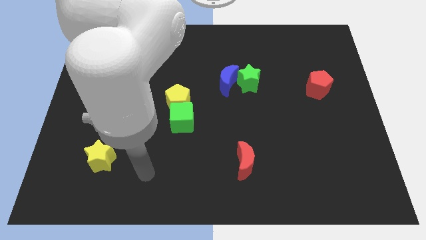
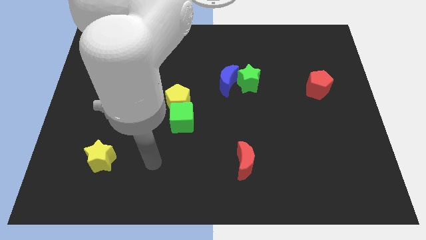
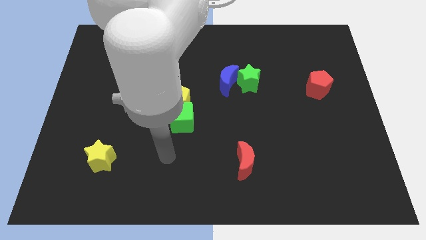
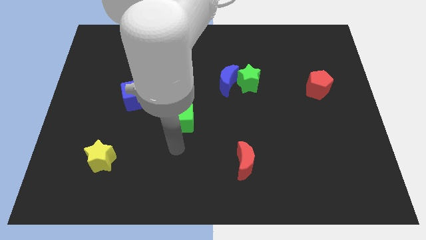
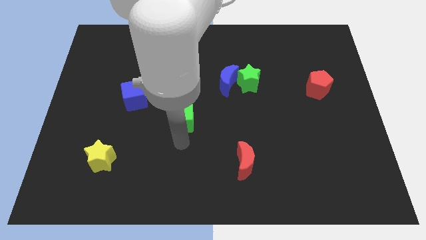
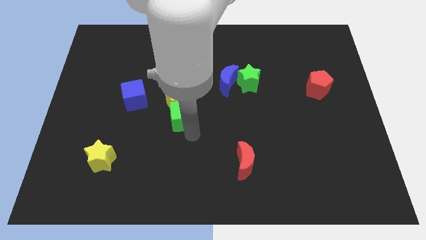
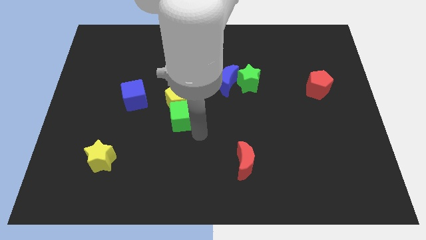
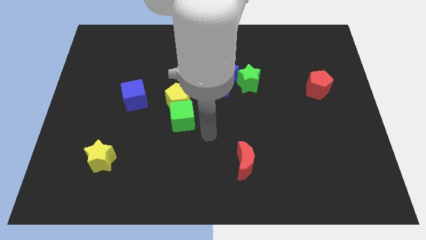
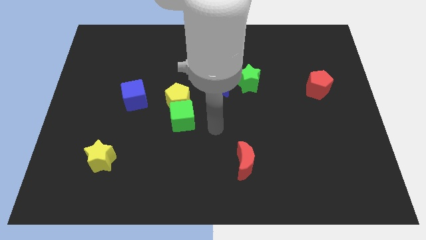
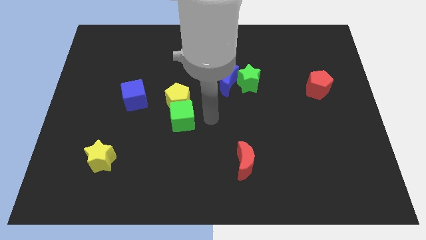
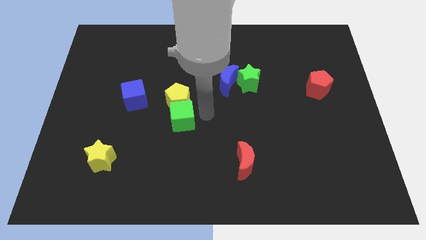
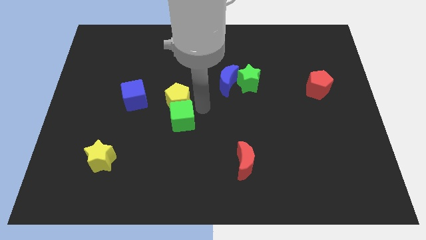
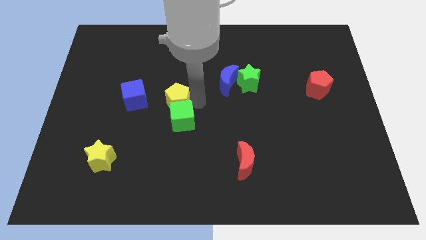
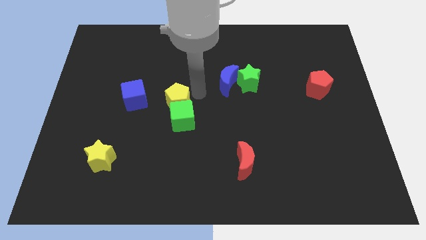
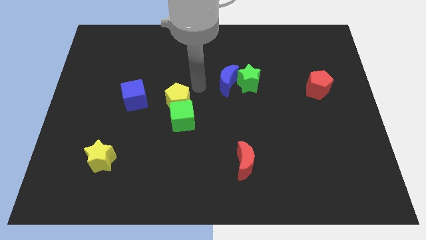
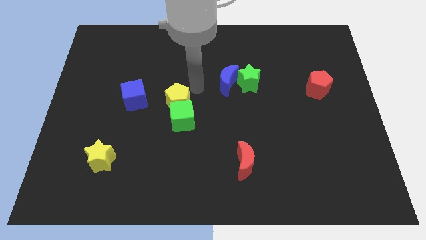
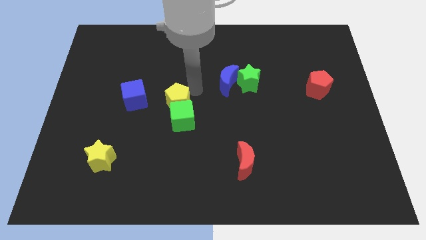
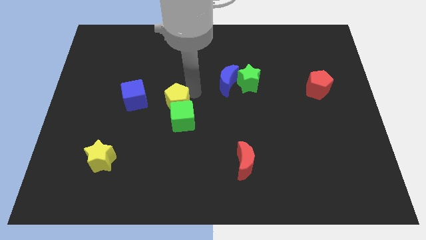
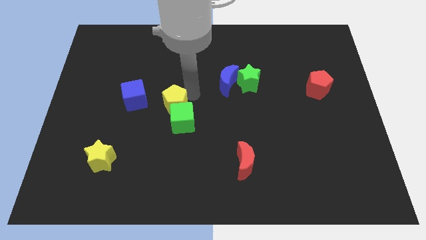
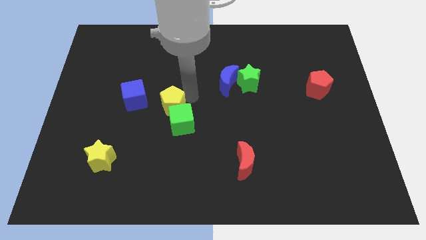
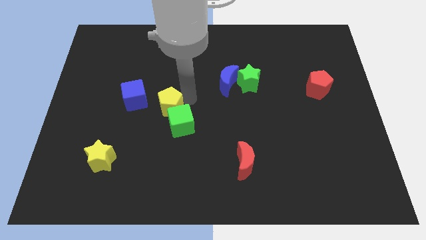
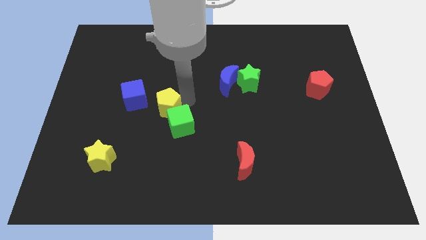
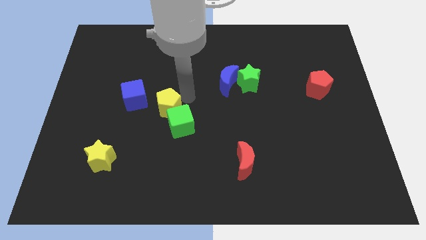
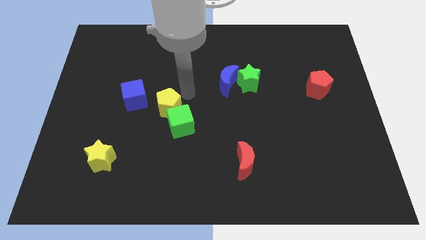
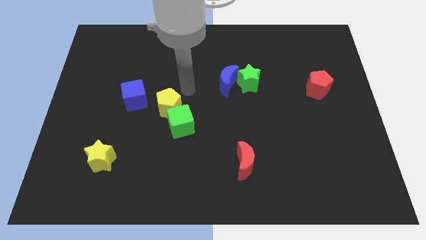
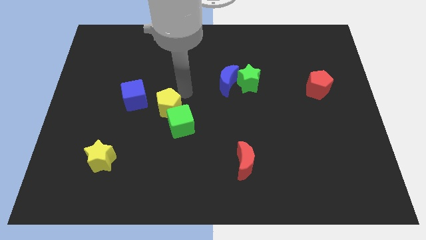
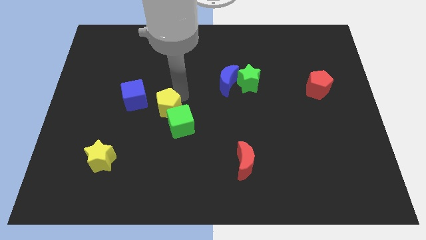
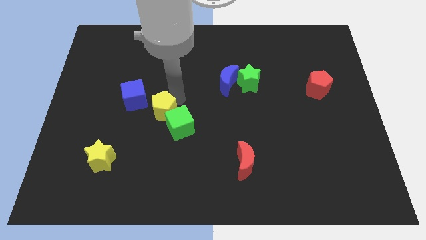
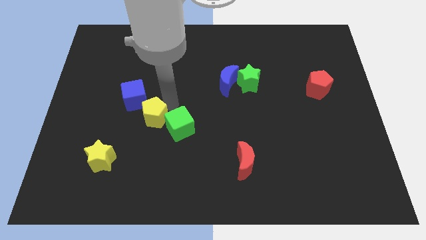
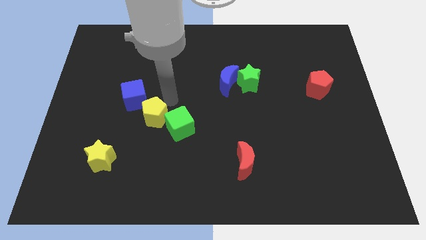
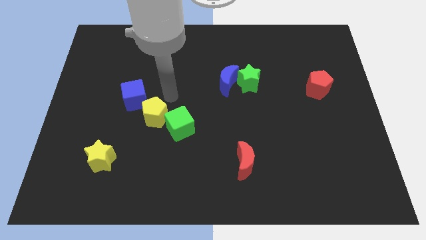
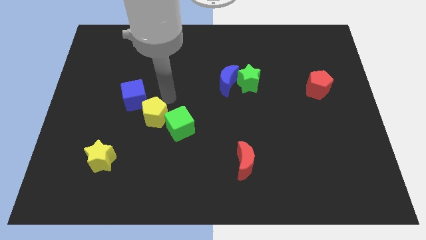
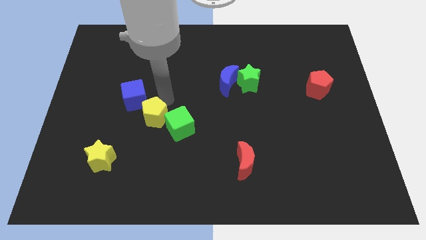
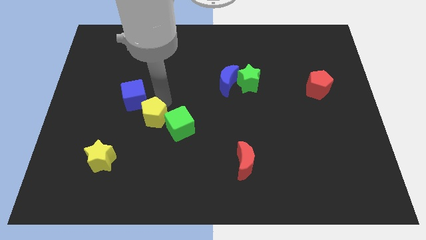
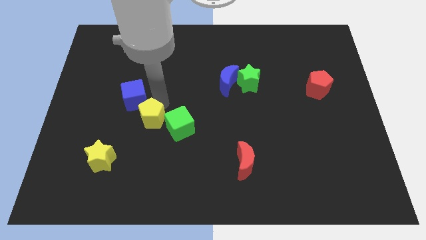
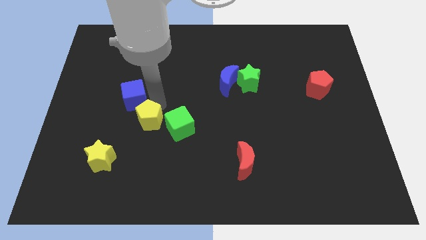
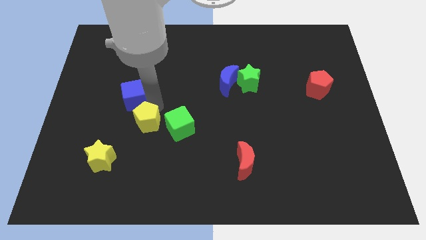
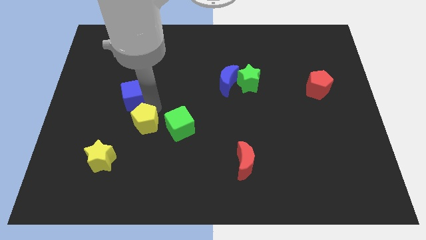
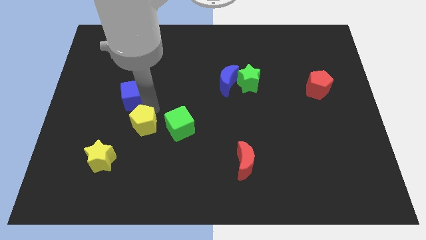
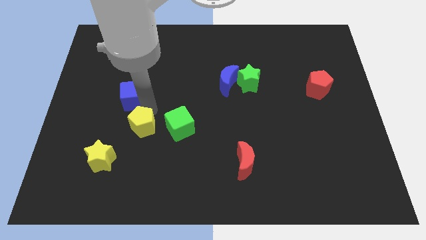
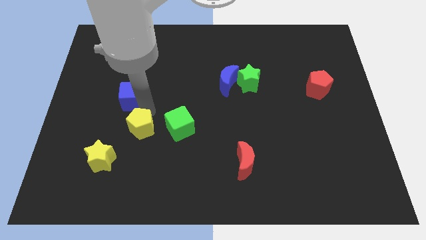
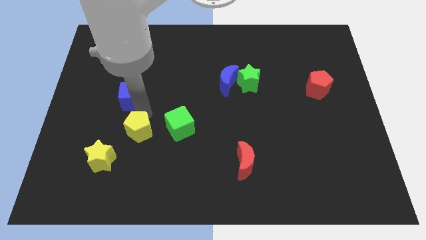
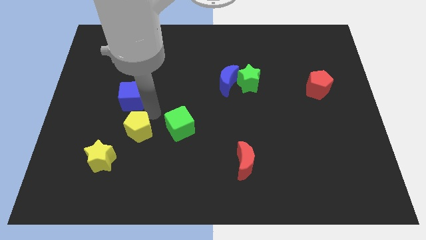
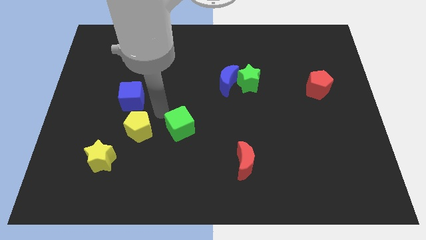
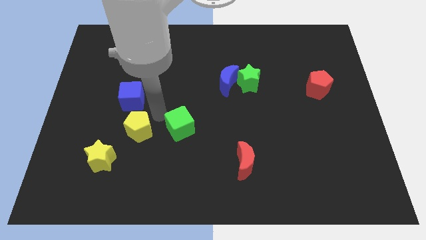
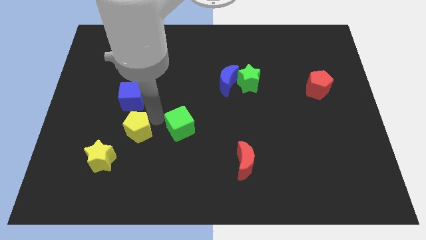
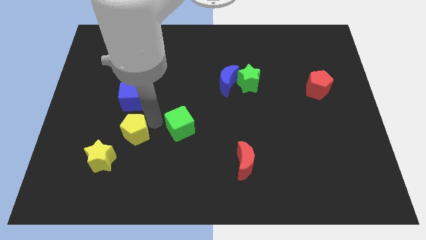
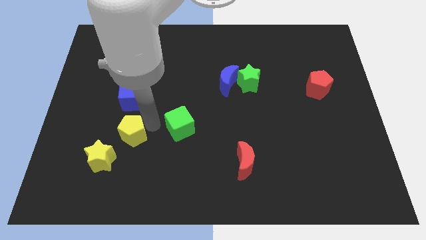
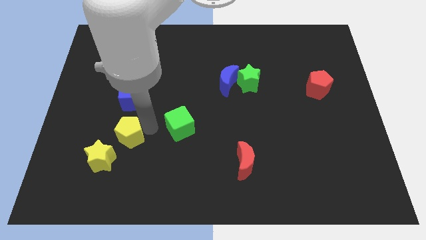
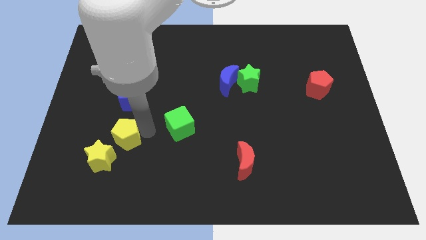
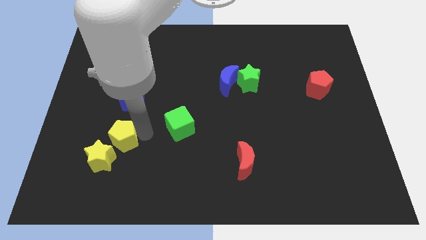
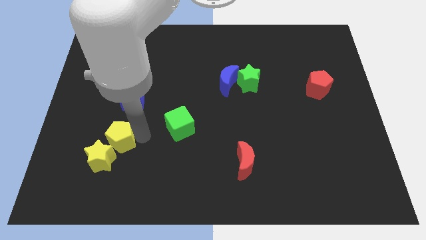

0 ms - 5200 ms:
push the yellow pentagon to the yellow star

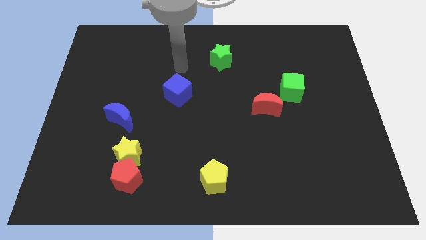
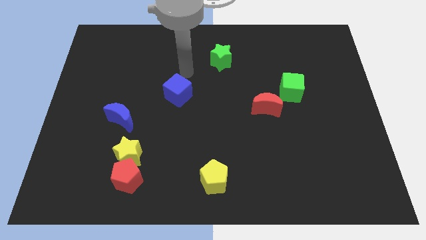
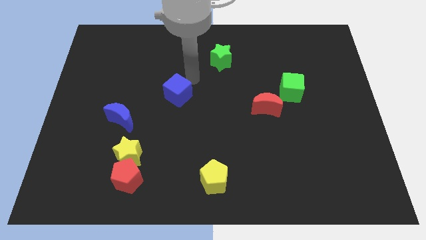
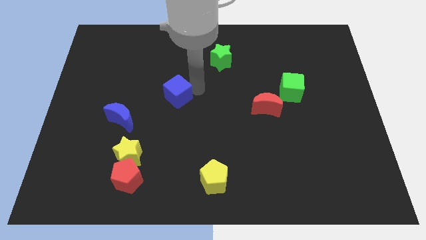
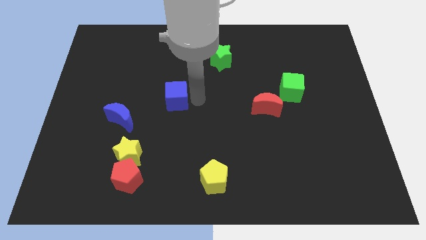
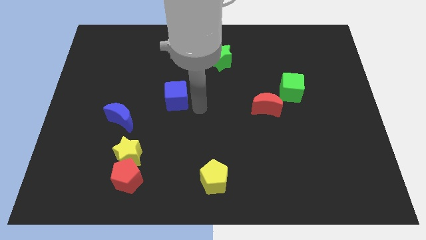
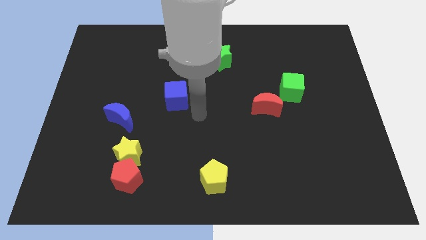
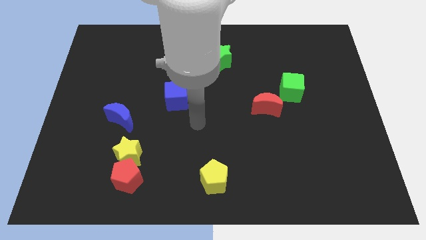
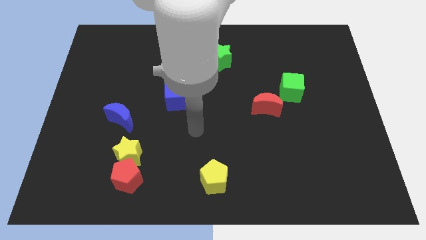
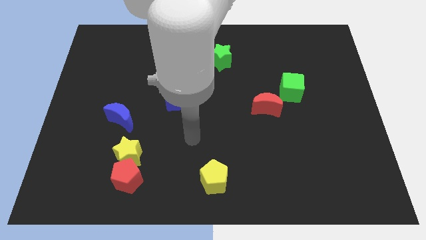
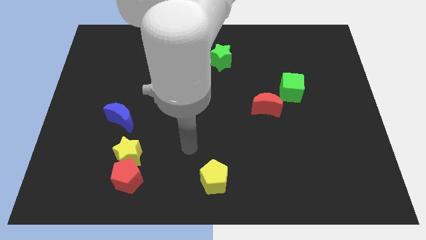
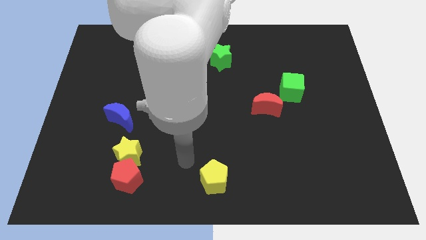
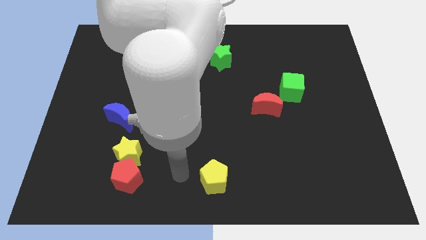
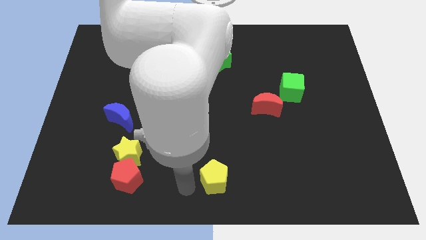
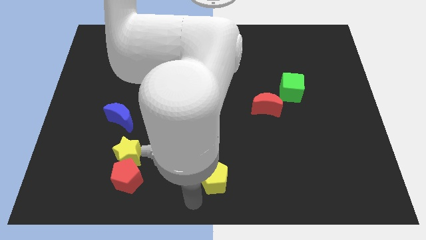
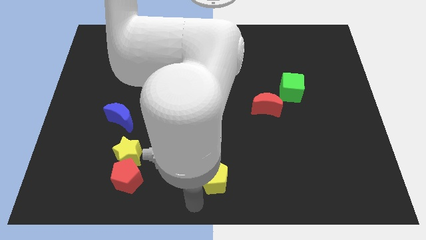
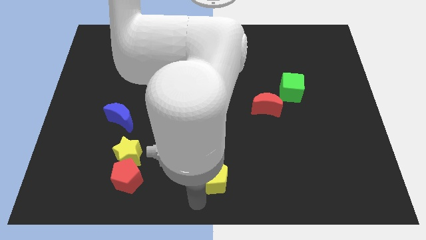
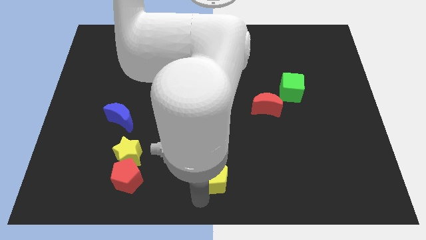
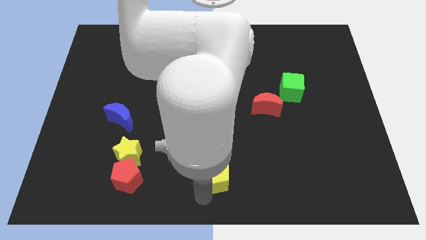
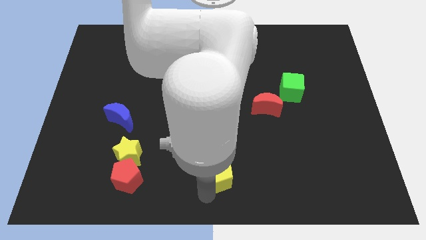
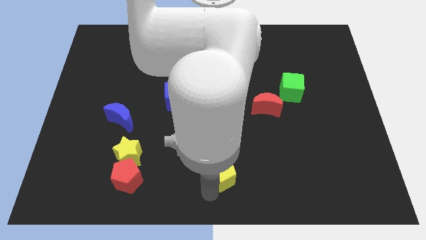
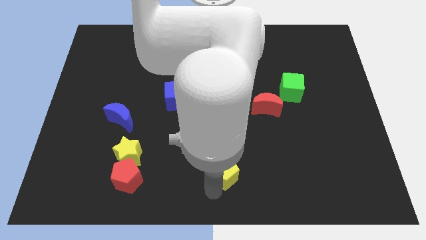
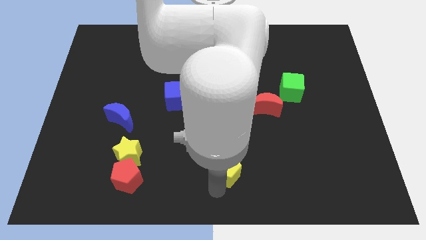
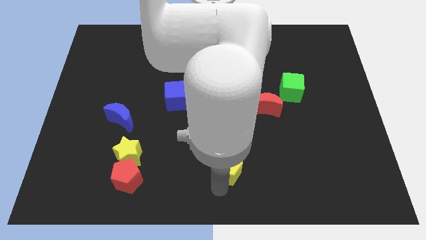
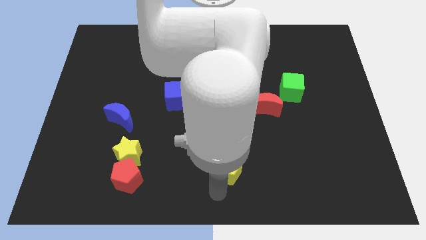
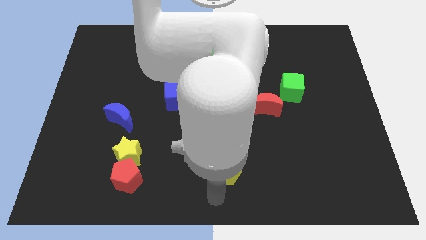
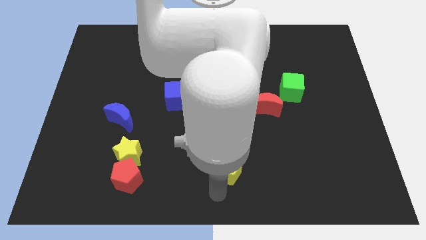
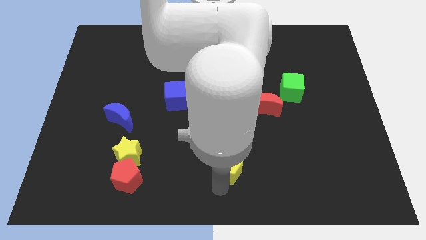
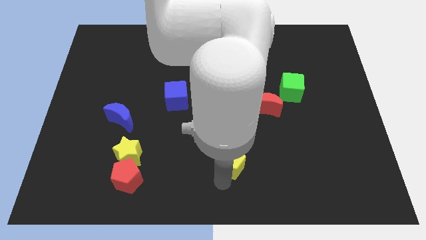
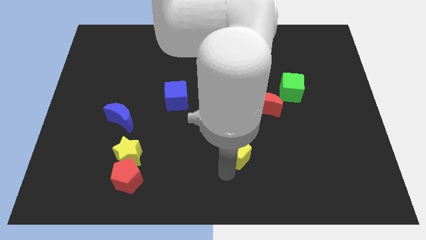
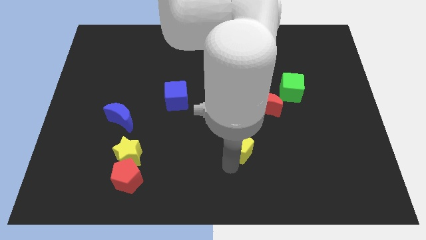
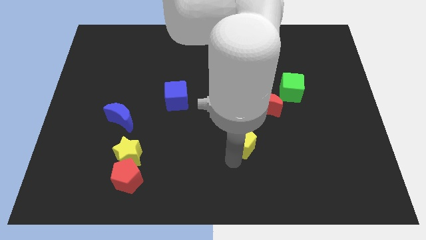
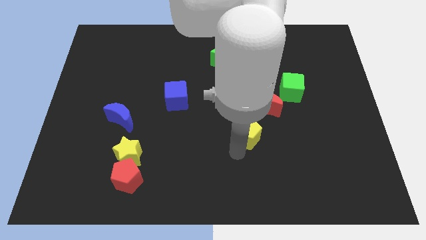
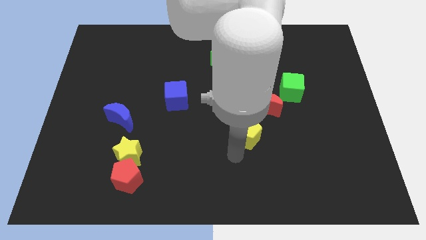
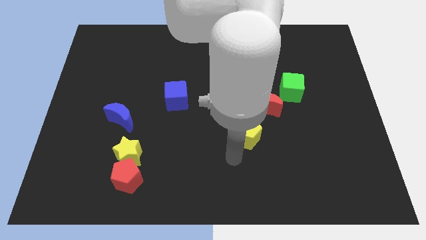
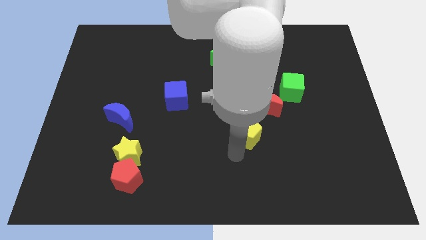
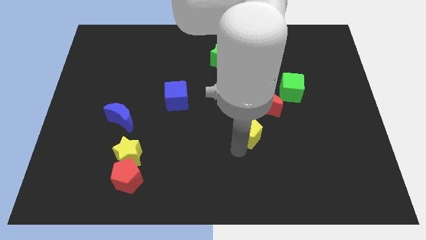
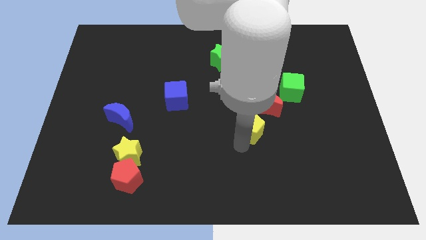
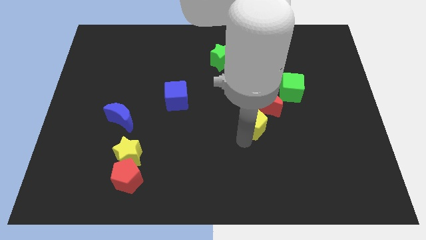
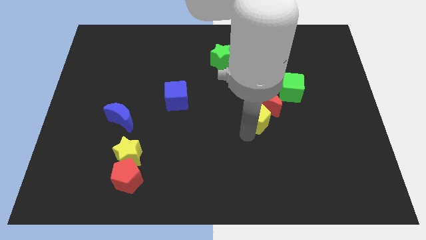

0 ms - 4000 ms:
slide the yellow pentagon towards the red moon
